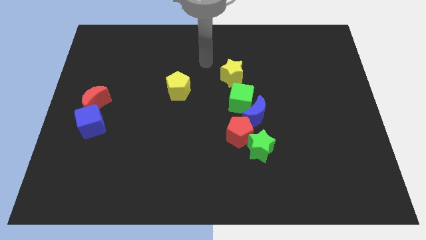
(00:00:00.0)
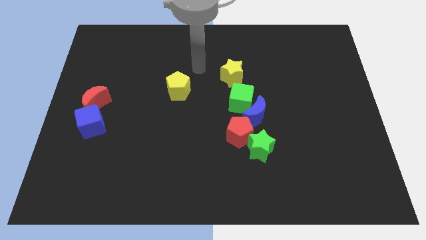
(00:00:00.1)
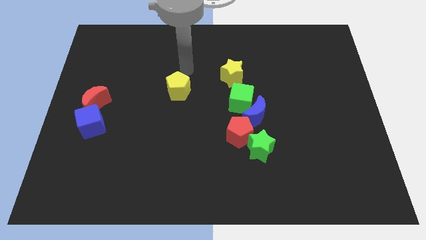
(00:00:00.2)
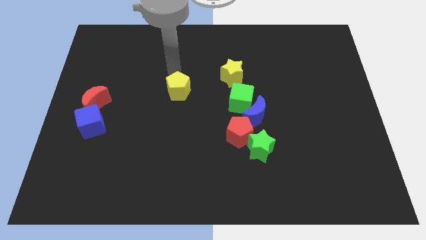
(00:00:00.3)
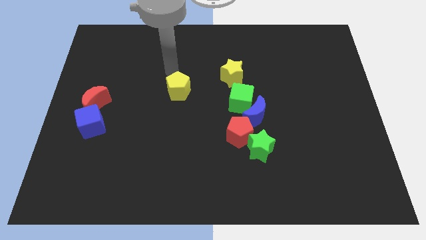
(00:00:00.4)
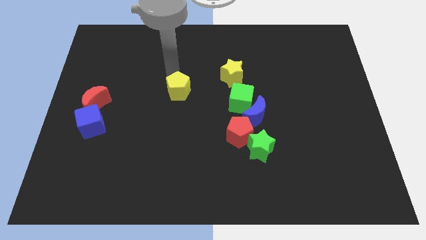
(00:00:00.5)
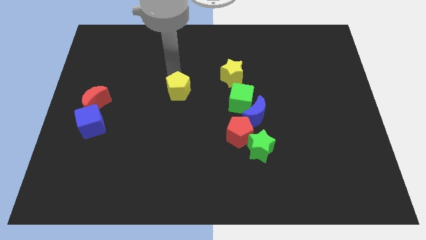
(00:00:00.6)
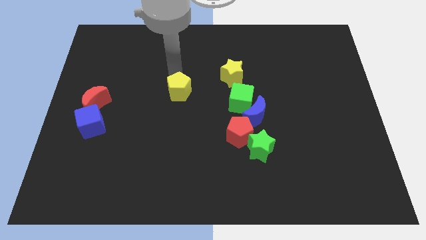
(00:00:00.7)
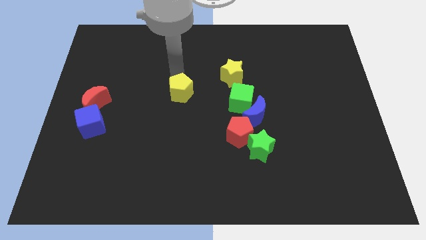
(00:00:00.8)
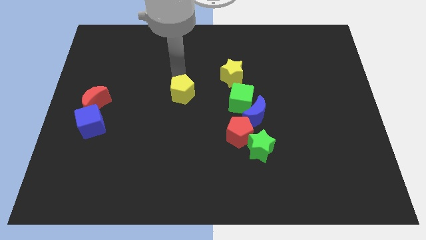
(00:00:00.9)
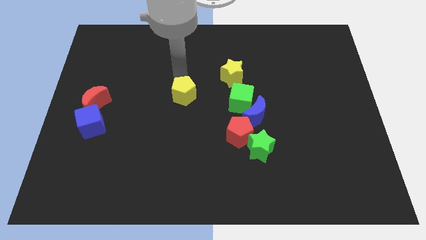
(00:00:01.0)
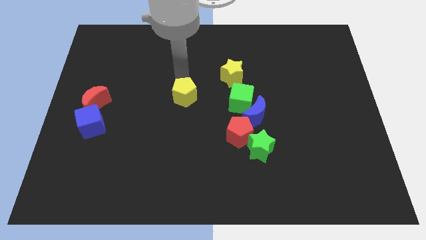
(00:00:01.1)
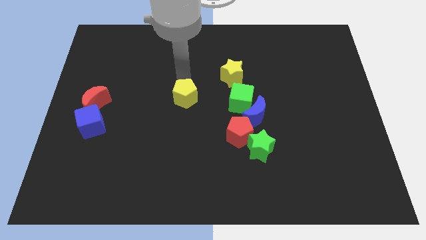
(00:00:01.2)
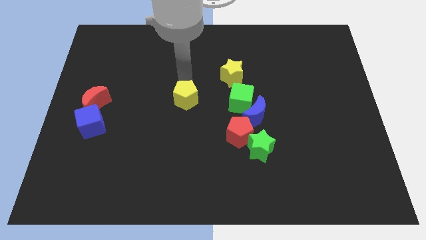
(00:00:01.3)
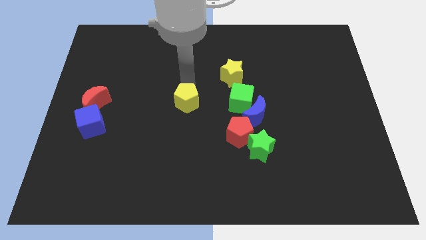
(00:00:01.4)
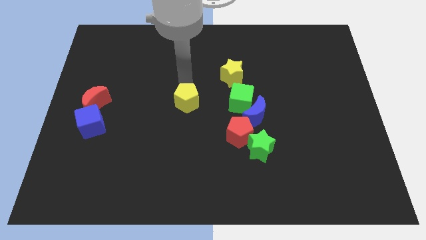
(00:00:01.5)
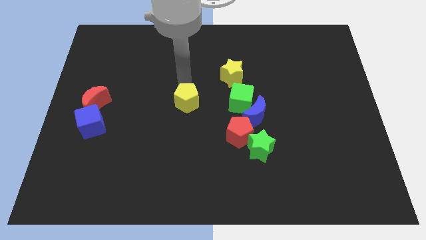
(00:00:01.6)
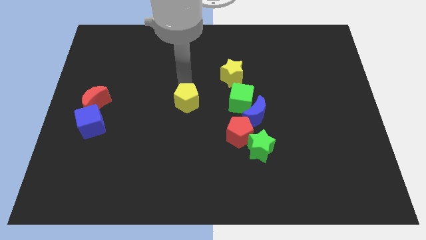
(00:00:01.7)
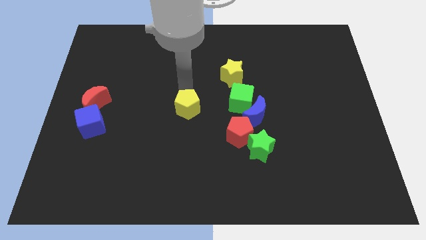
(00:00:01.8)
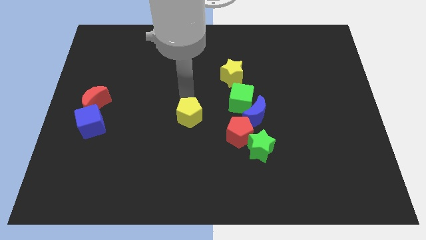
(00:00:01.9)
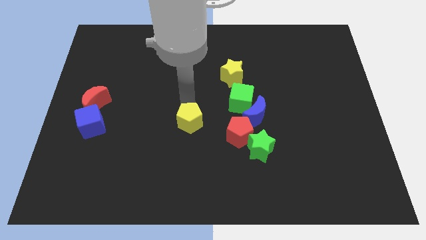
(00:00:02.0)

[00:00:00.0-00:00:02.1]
push the yellow pentagon to the left of the red pentagon

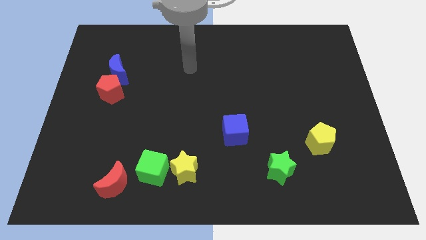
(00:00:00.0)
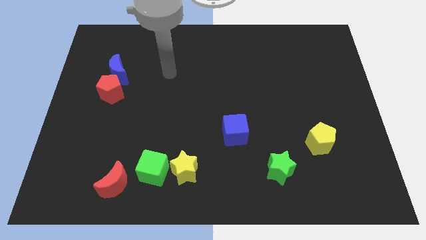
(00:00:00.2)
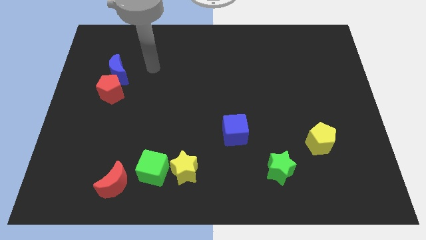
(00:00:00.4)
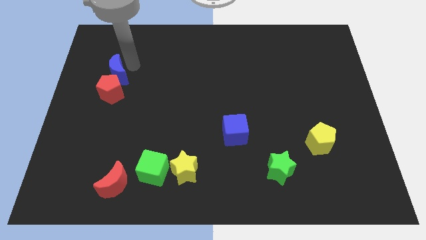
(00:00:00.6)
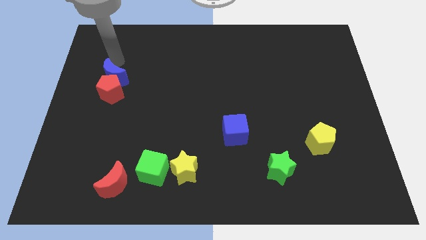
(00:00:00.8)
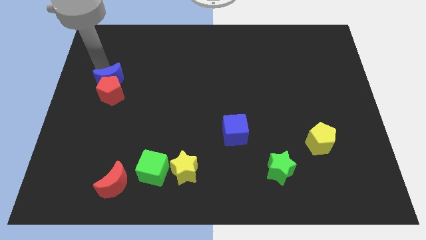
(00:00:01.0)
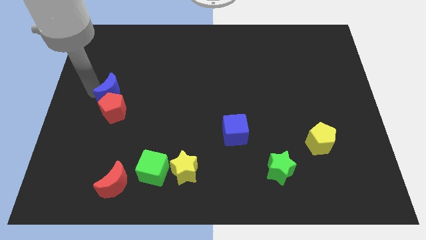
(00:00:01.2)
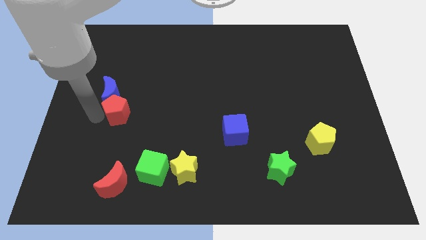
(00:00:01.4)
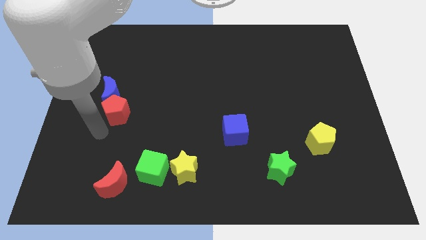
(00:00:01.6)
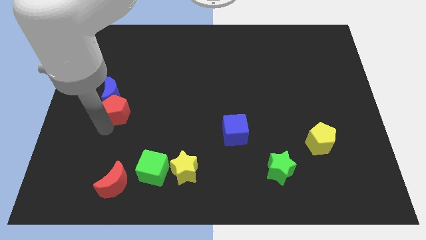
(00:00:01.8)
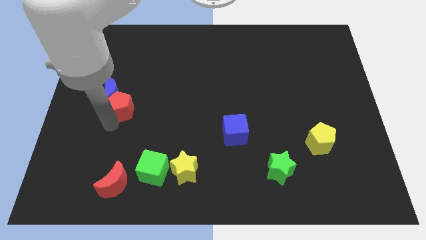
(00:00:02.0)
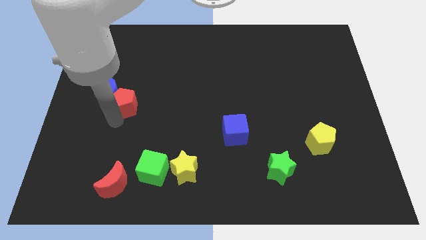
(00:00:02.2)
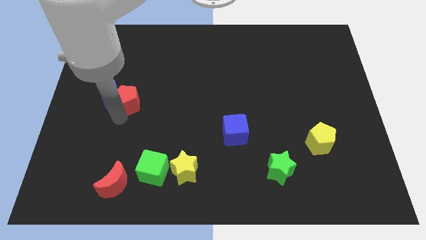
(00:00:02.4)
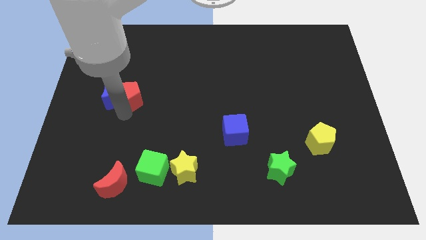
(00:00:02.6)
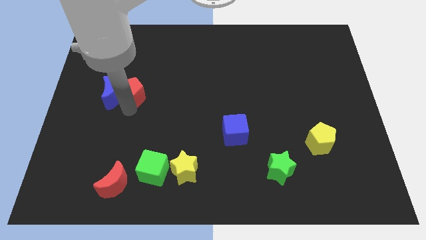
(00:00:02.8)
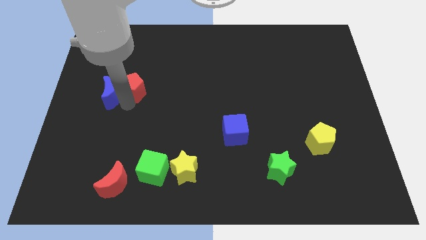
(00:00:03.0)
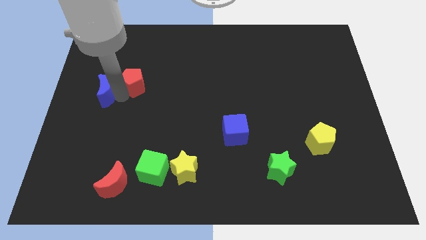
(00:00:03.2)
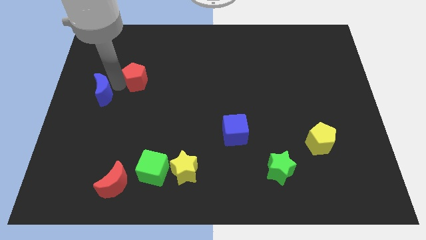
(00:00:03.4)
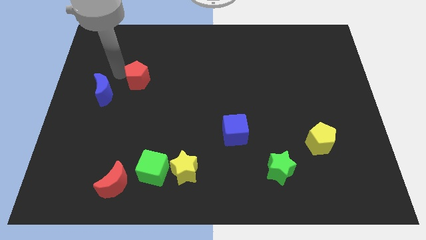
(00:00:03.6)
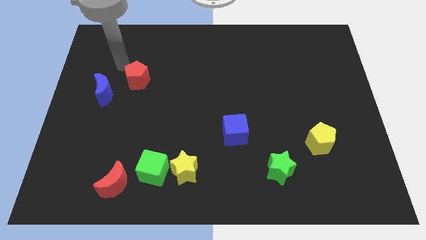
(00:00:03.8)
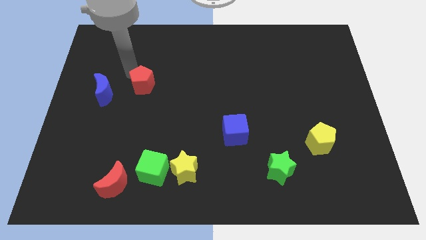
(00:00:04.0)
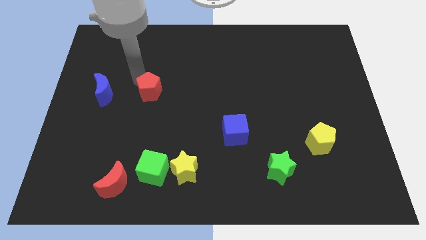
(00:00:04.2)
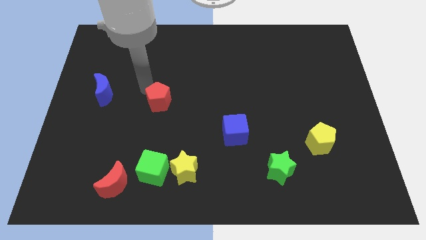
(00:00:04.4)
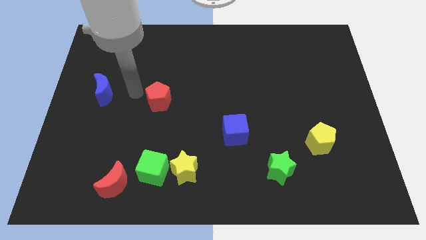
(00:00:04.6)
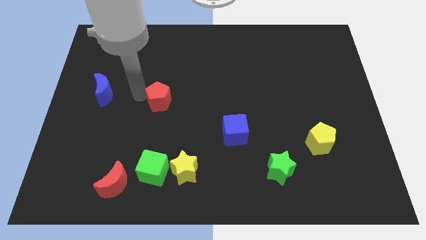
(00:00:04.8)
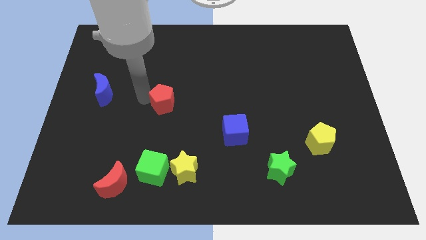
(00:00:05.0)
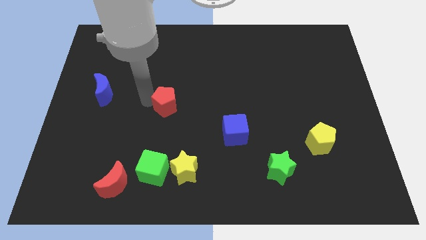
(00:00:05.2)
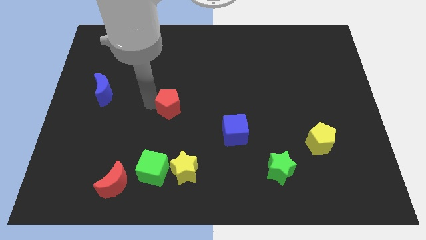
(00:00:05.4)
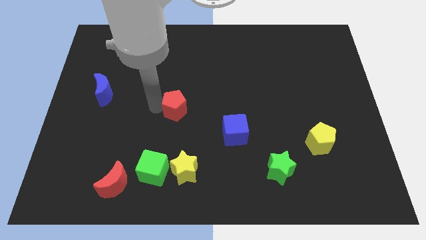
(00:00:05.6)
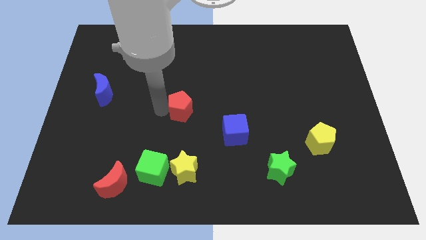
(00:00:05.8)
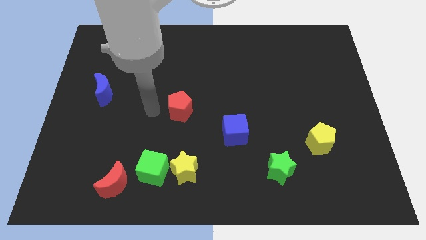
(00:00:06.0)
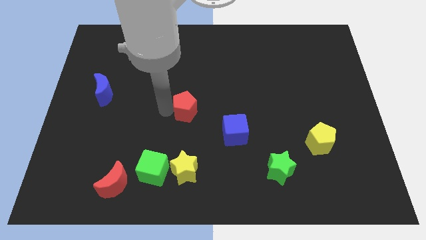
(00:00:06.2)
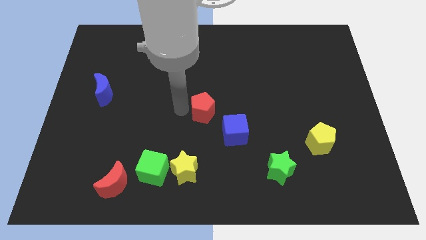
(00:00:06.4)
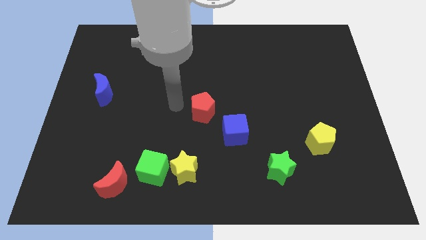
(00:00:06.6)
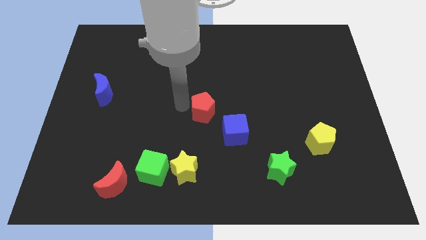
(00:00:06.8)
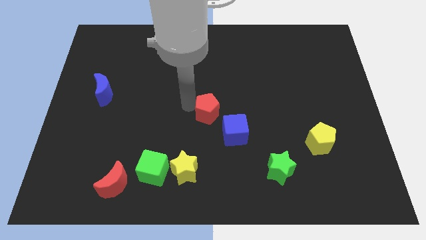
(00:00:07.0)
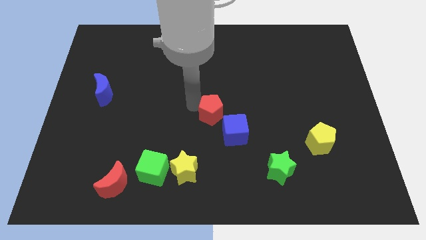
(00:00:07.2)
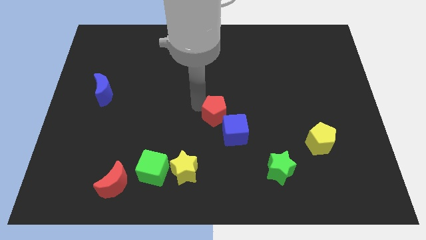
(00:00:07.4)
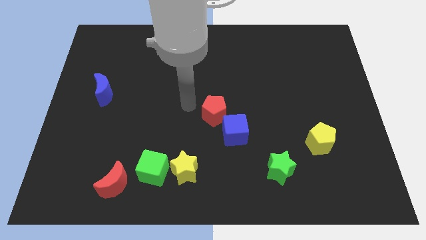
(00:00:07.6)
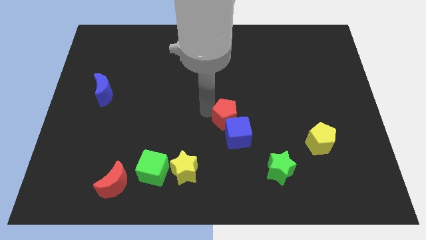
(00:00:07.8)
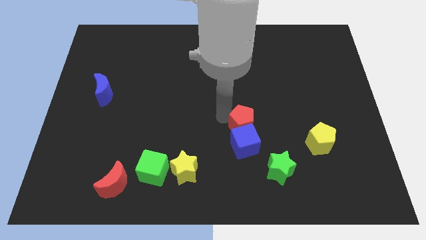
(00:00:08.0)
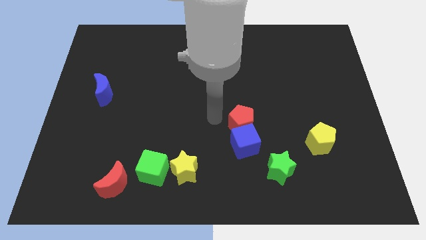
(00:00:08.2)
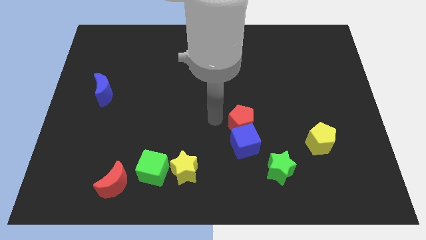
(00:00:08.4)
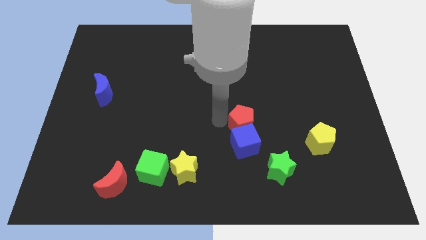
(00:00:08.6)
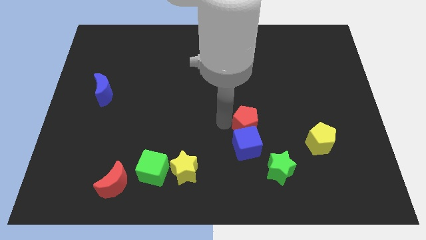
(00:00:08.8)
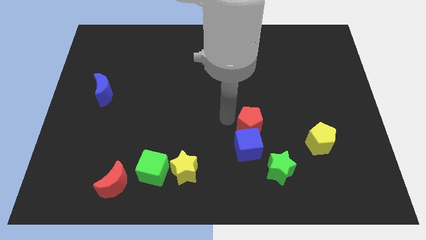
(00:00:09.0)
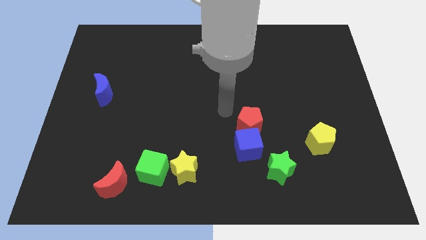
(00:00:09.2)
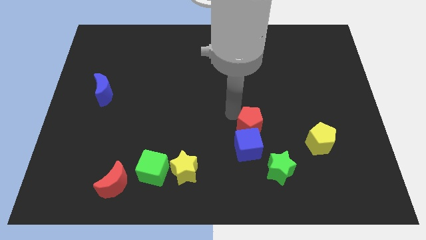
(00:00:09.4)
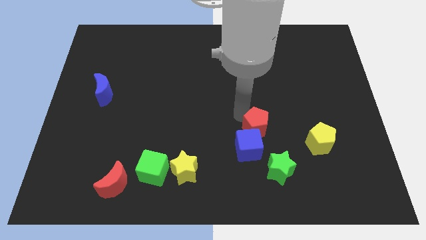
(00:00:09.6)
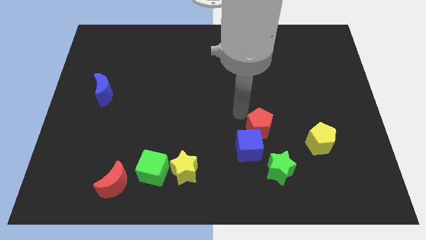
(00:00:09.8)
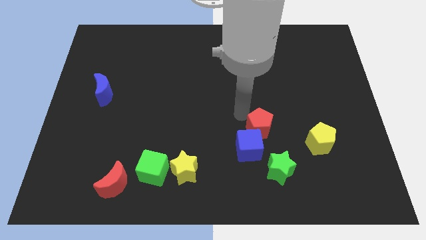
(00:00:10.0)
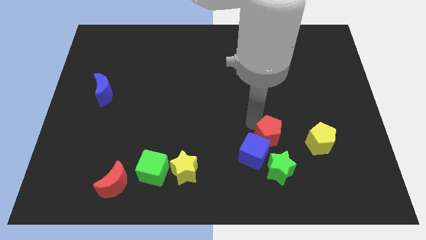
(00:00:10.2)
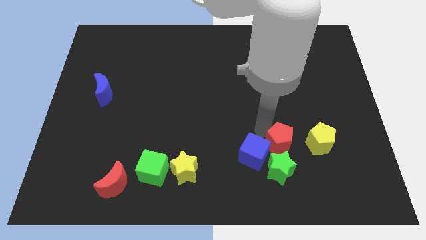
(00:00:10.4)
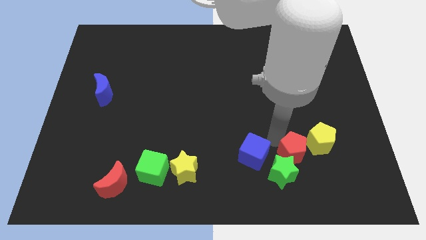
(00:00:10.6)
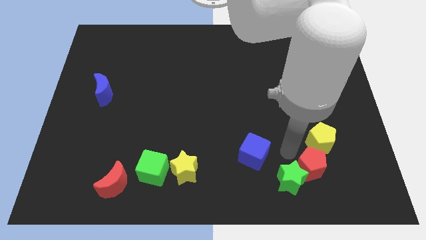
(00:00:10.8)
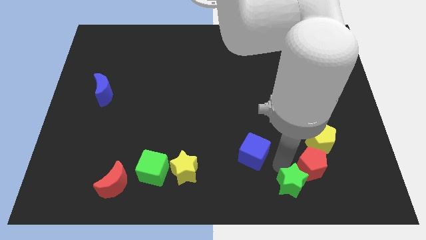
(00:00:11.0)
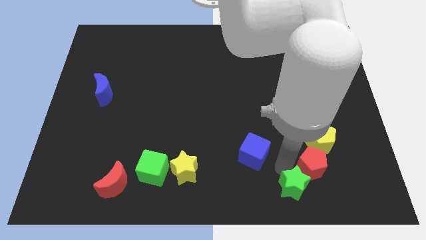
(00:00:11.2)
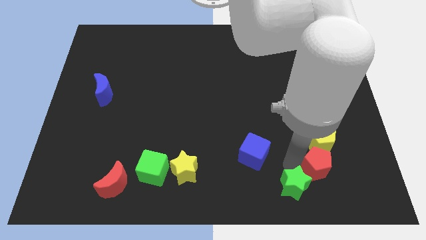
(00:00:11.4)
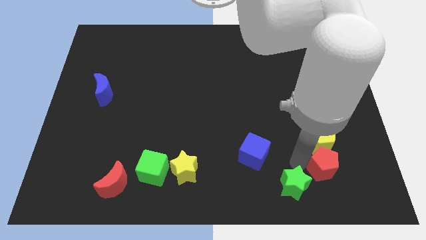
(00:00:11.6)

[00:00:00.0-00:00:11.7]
push the red pentagon diagonally down and to the right of the yellow pentagon
